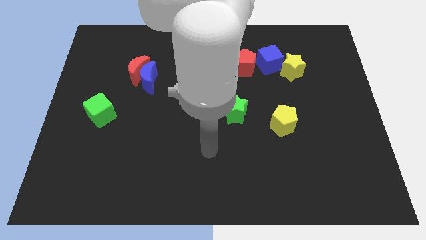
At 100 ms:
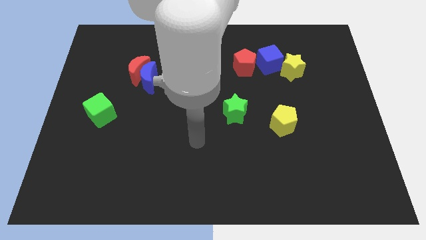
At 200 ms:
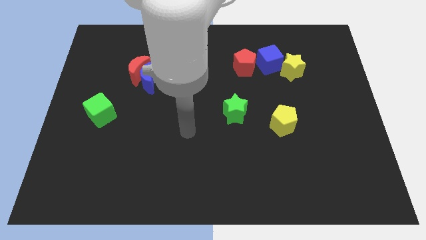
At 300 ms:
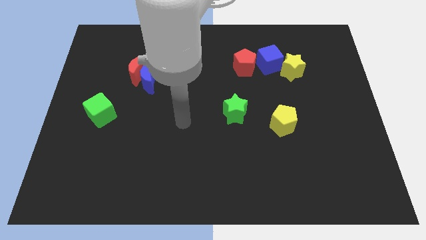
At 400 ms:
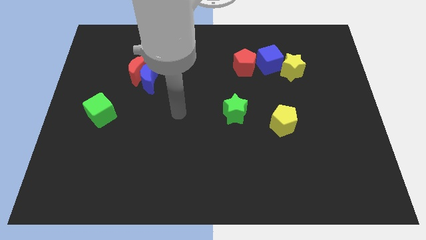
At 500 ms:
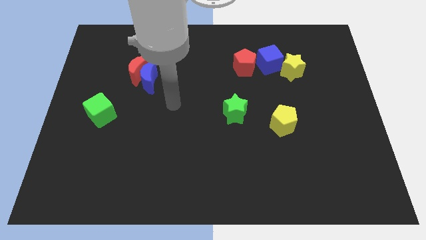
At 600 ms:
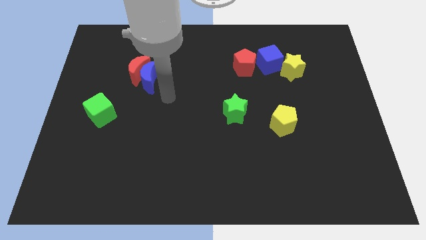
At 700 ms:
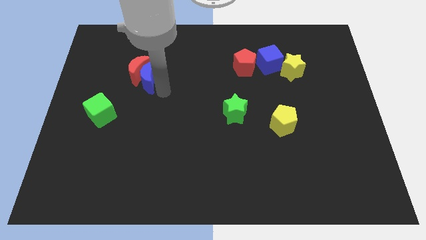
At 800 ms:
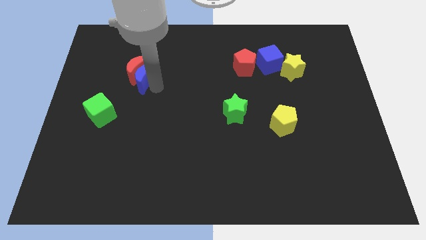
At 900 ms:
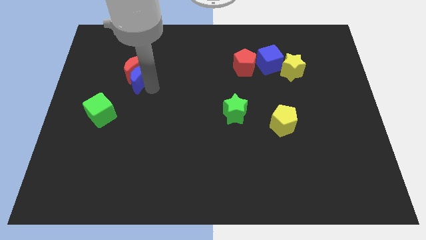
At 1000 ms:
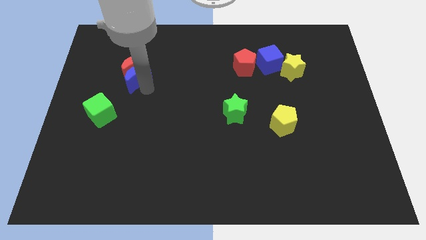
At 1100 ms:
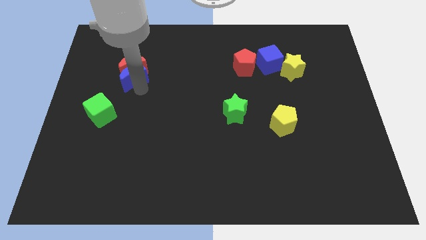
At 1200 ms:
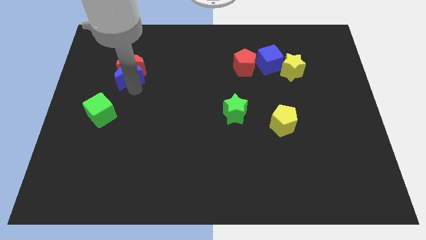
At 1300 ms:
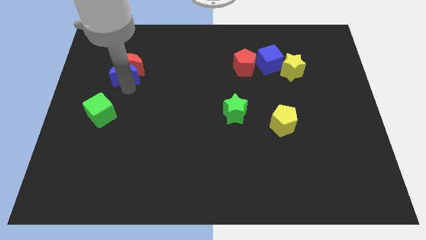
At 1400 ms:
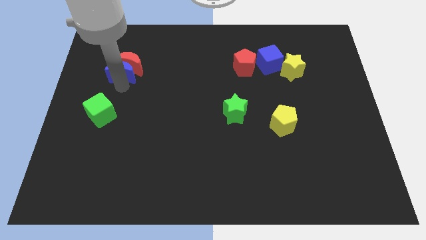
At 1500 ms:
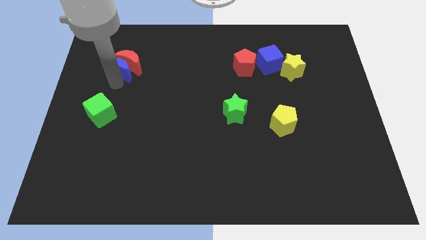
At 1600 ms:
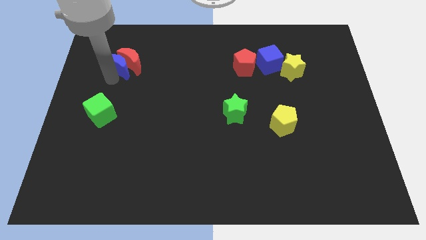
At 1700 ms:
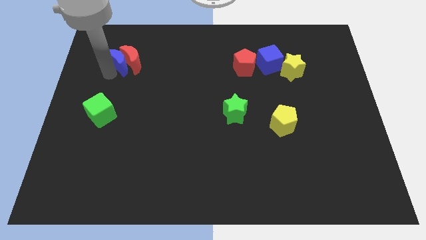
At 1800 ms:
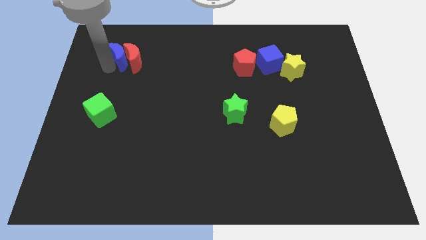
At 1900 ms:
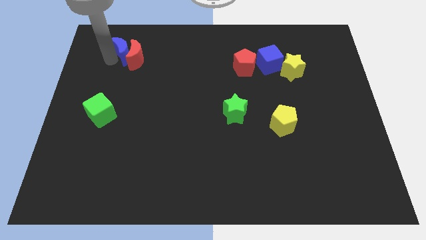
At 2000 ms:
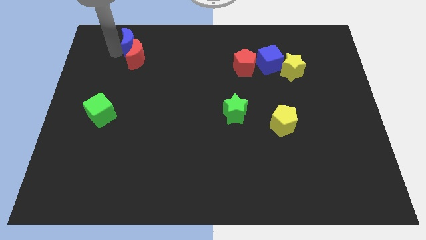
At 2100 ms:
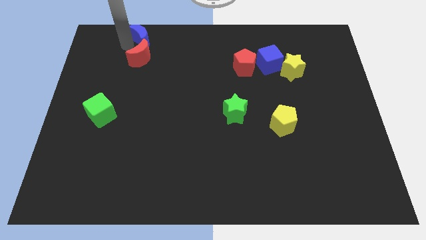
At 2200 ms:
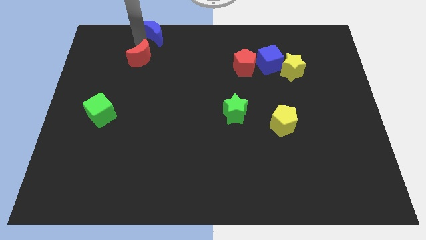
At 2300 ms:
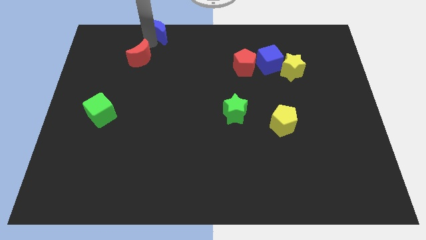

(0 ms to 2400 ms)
separate the red moon from the blue moon

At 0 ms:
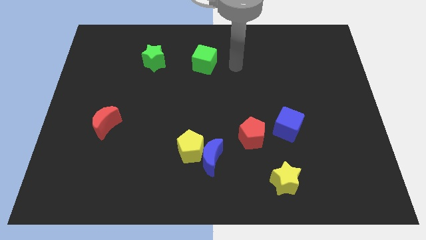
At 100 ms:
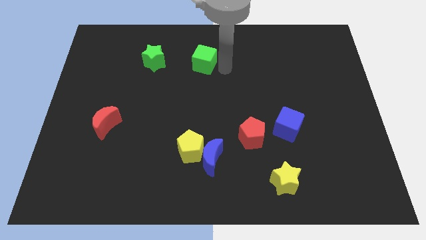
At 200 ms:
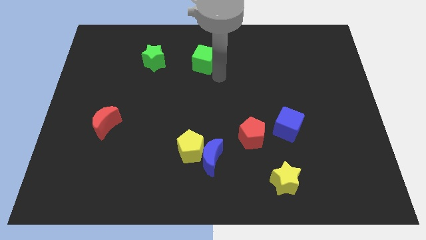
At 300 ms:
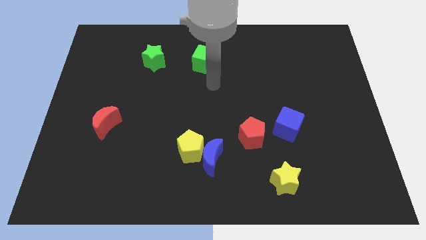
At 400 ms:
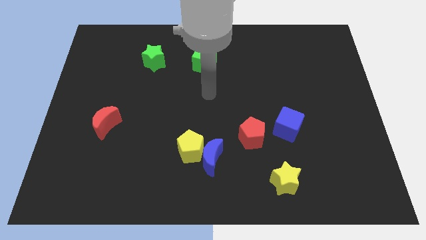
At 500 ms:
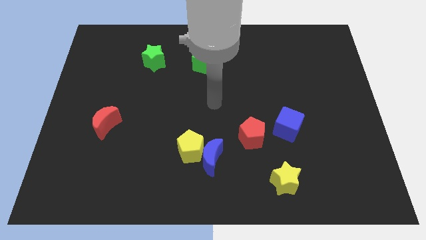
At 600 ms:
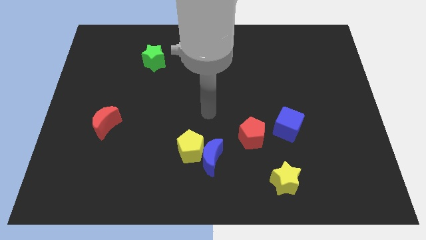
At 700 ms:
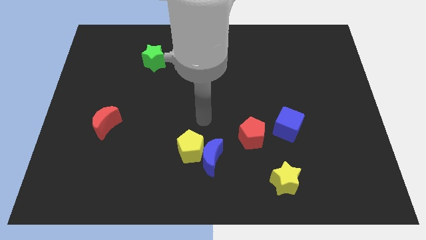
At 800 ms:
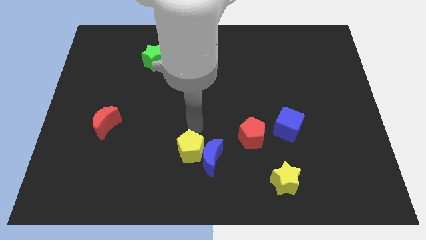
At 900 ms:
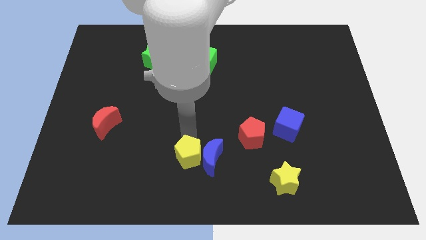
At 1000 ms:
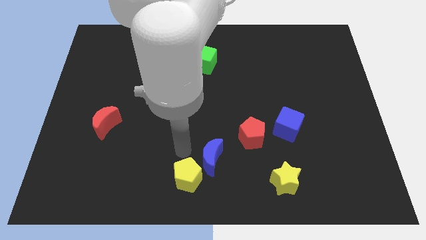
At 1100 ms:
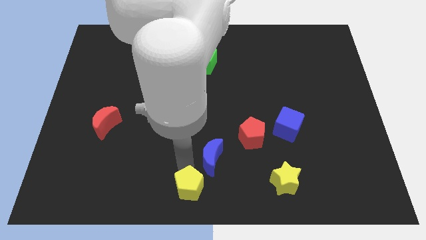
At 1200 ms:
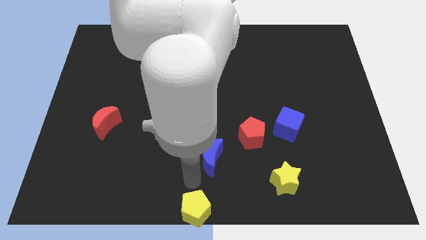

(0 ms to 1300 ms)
separate the blue moon from the yellow pentagon

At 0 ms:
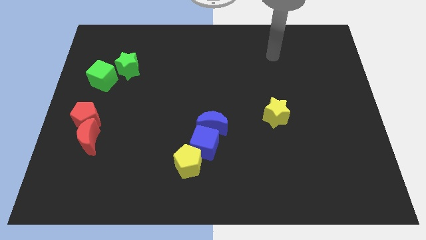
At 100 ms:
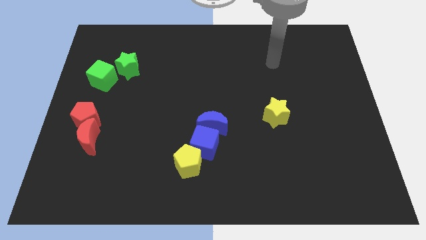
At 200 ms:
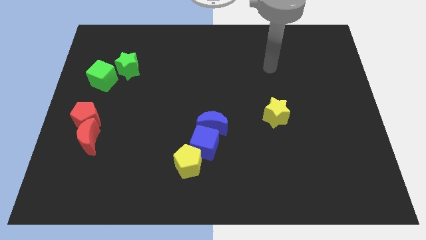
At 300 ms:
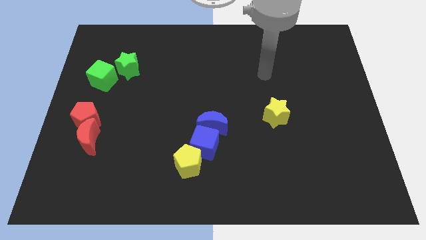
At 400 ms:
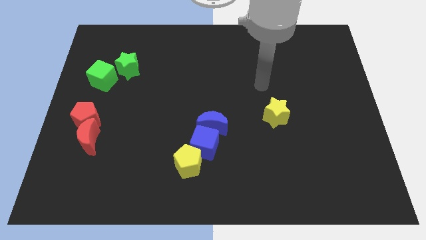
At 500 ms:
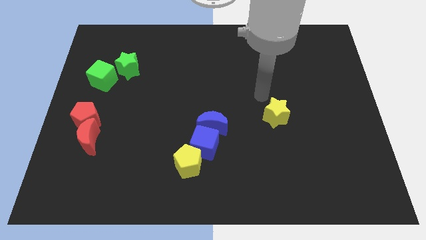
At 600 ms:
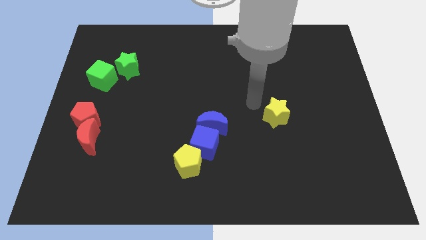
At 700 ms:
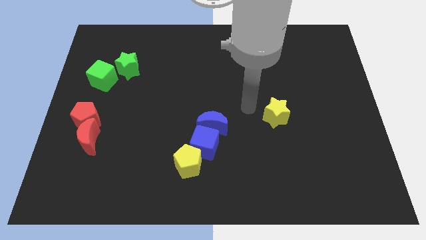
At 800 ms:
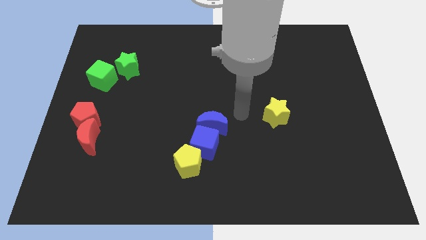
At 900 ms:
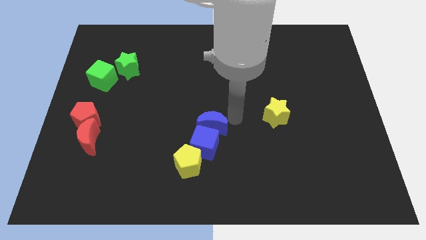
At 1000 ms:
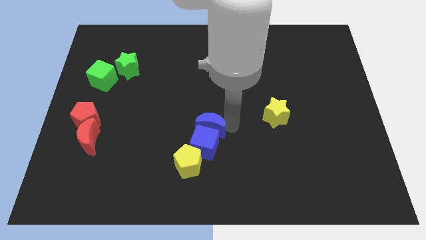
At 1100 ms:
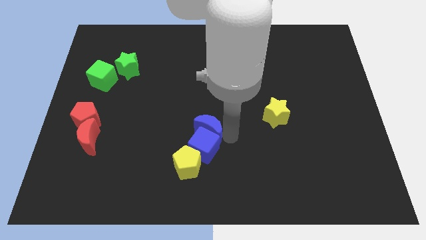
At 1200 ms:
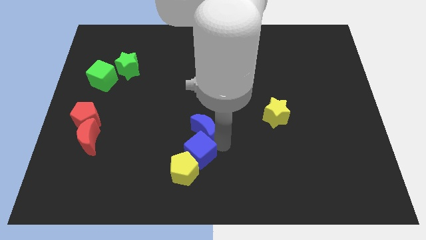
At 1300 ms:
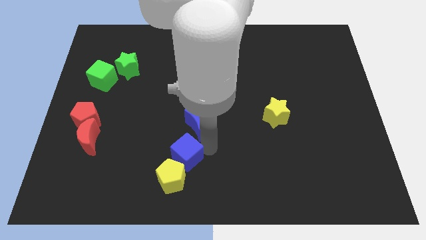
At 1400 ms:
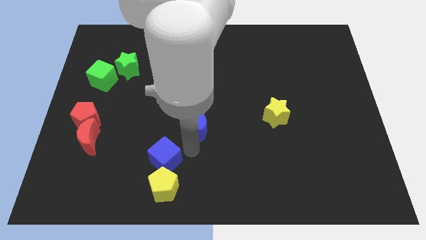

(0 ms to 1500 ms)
separate the blue moon from the blue cube

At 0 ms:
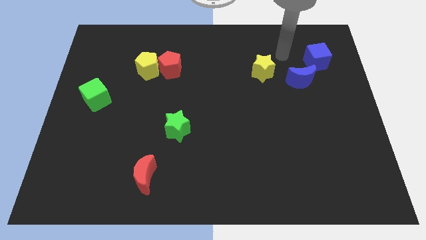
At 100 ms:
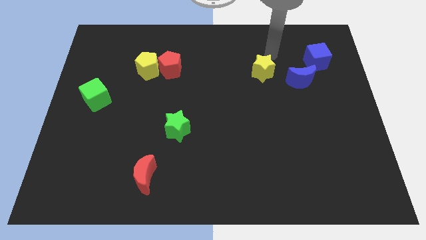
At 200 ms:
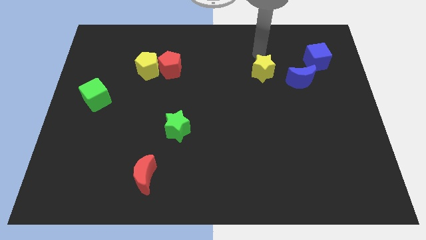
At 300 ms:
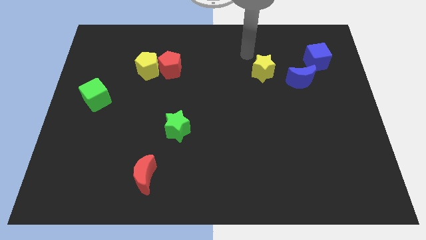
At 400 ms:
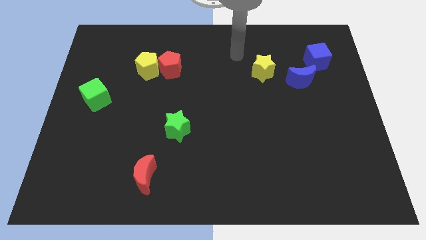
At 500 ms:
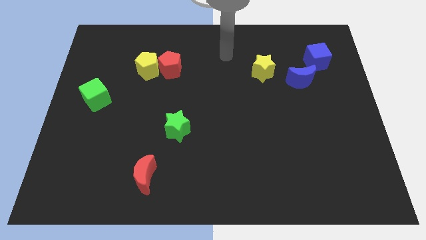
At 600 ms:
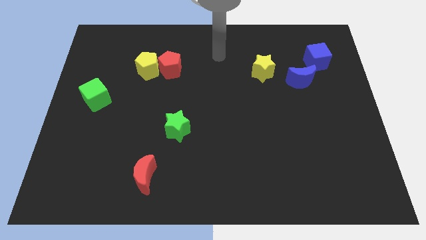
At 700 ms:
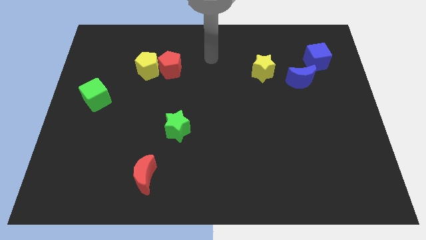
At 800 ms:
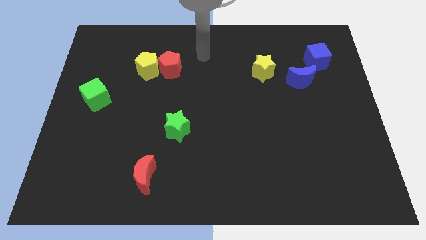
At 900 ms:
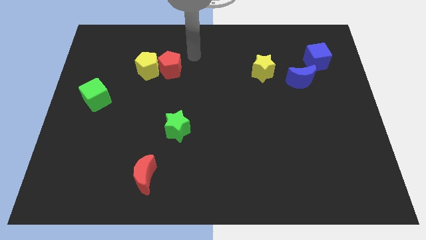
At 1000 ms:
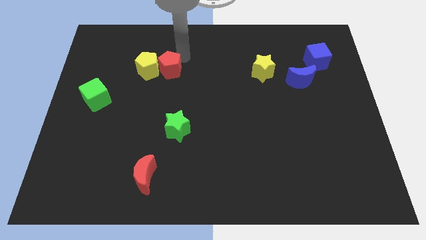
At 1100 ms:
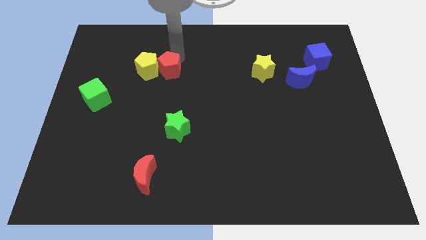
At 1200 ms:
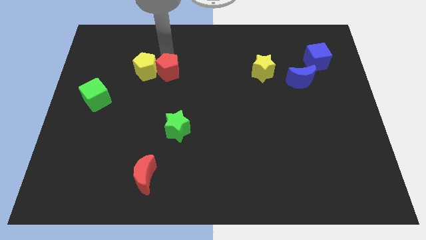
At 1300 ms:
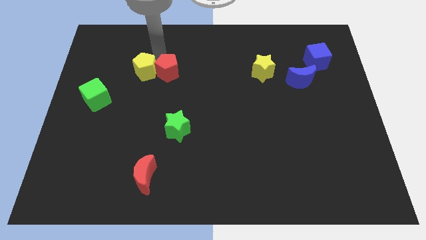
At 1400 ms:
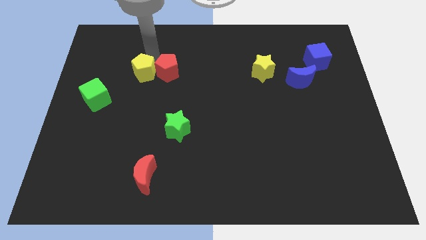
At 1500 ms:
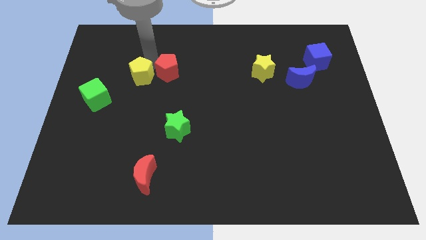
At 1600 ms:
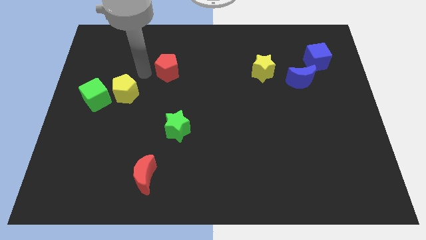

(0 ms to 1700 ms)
separate the red pentagon from the yellow pentagon

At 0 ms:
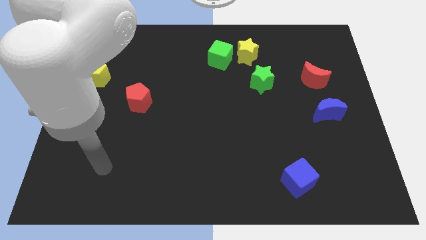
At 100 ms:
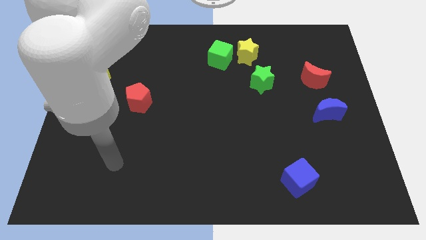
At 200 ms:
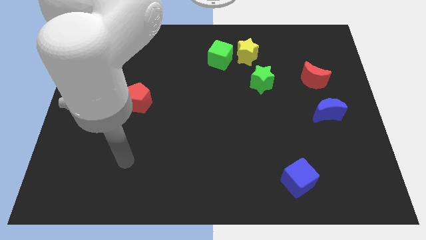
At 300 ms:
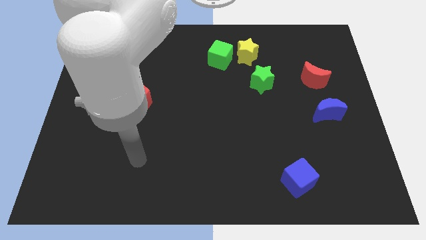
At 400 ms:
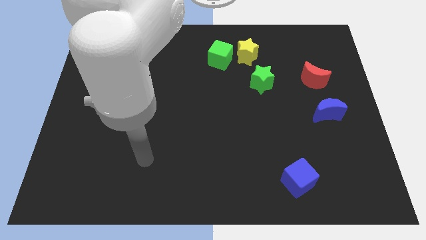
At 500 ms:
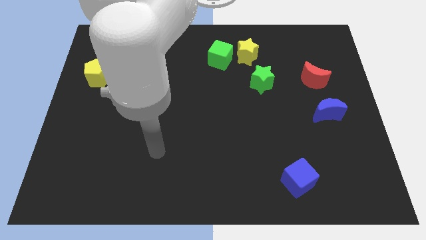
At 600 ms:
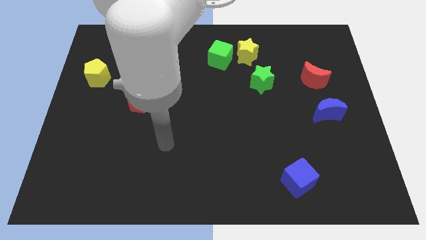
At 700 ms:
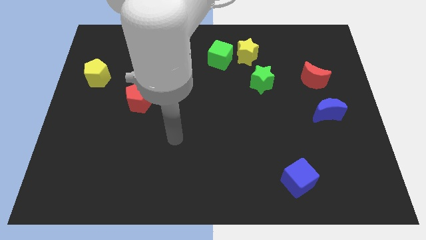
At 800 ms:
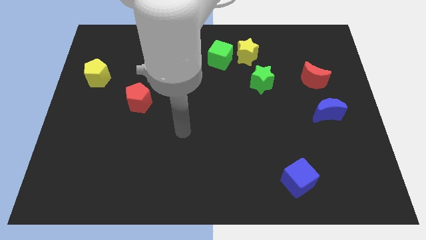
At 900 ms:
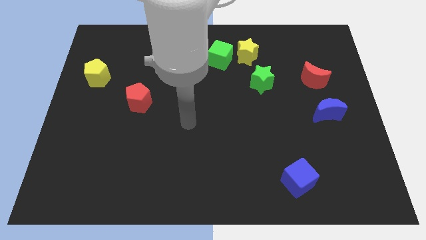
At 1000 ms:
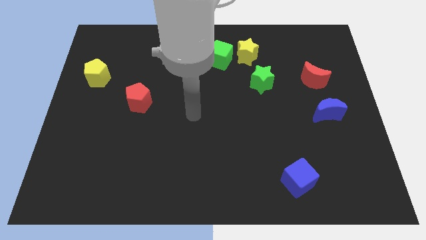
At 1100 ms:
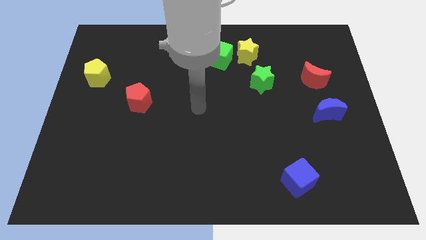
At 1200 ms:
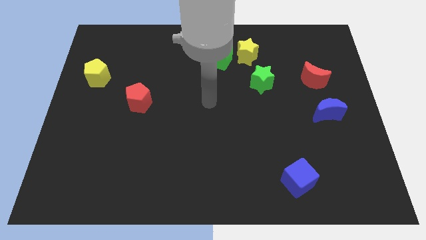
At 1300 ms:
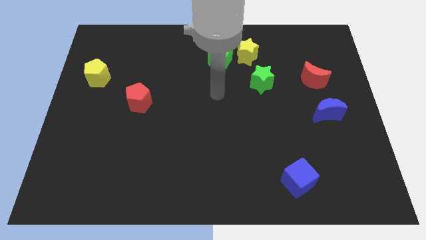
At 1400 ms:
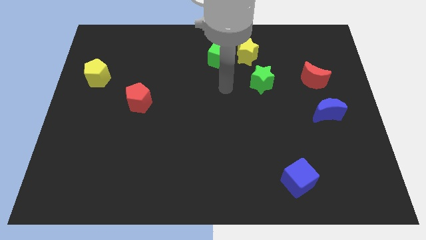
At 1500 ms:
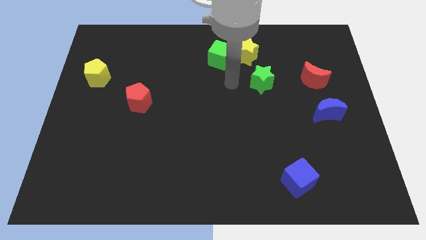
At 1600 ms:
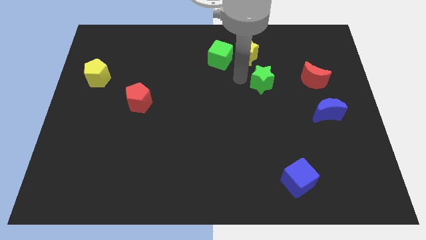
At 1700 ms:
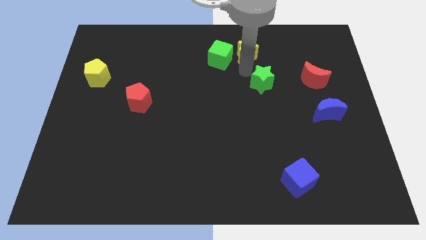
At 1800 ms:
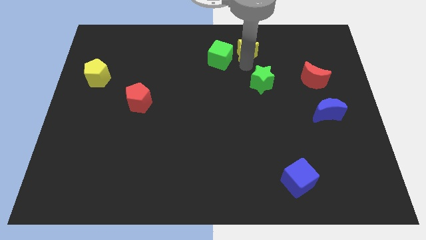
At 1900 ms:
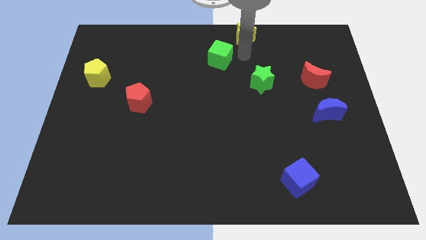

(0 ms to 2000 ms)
separate the green cube from the yellow star

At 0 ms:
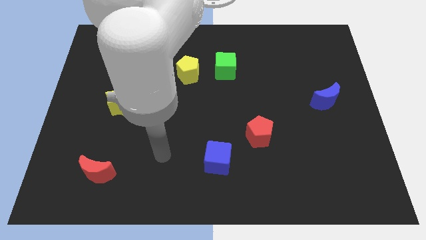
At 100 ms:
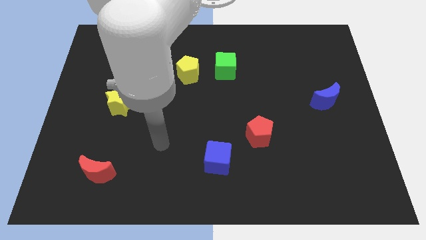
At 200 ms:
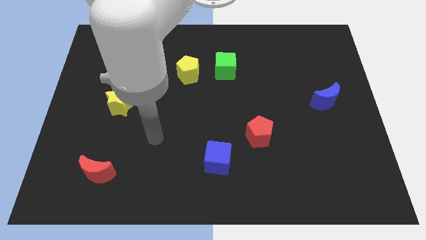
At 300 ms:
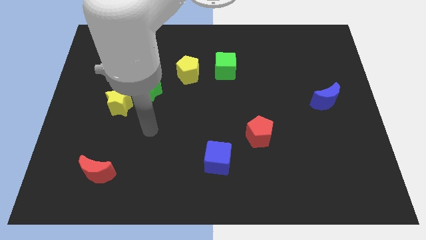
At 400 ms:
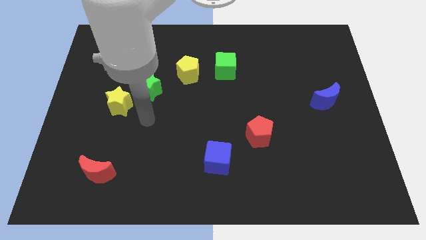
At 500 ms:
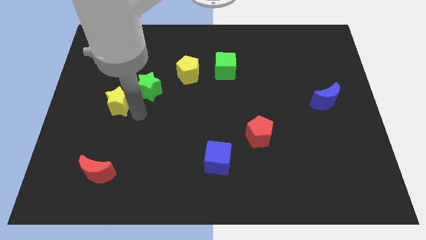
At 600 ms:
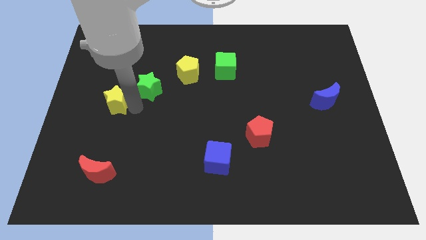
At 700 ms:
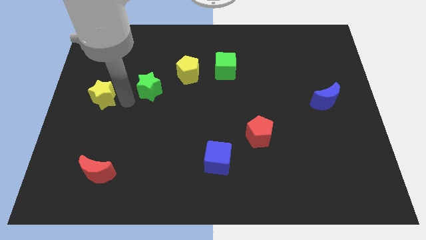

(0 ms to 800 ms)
move the green star away from the yellow star
